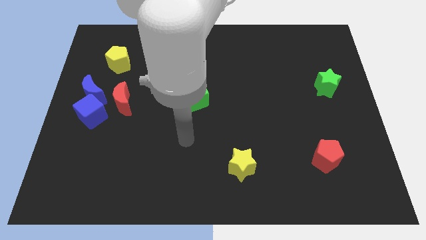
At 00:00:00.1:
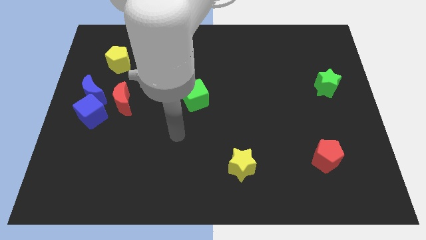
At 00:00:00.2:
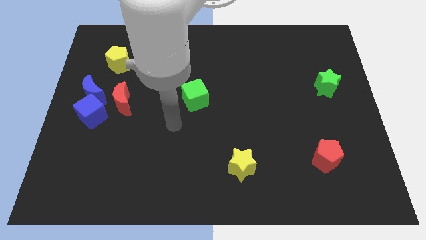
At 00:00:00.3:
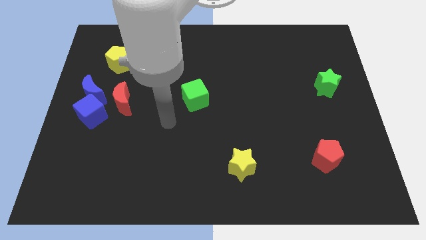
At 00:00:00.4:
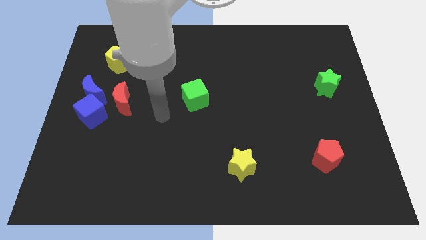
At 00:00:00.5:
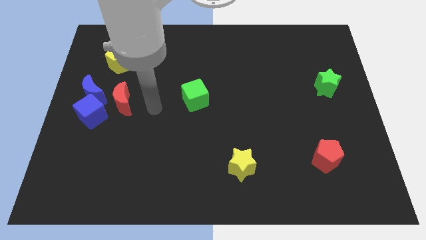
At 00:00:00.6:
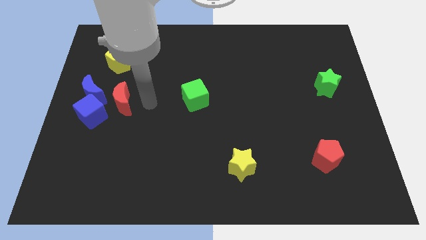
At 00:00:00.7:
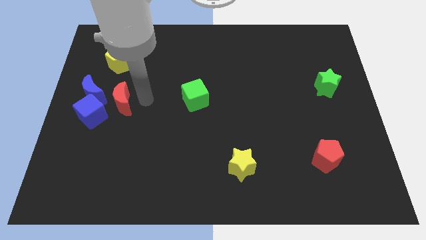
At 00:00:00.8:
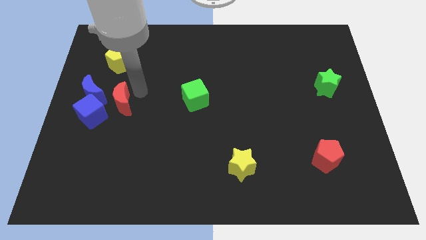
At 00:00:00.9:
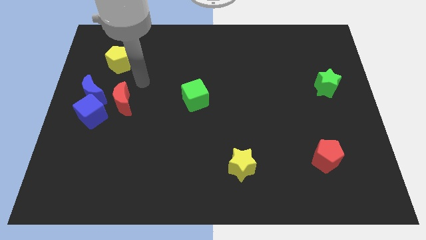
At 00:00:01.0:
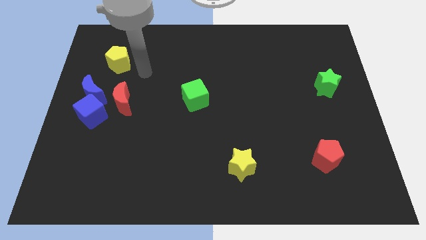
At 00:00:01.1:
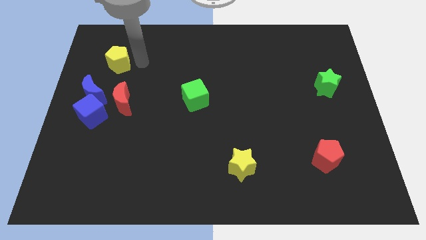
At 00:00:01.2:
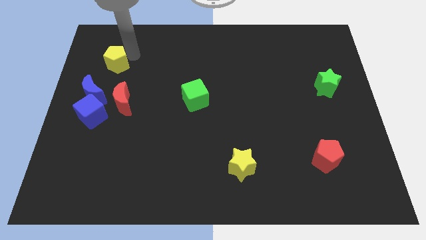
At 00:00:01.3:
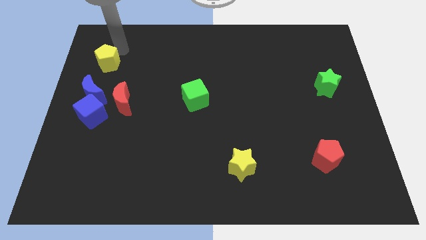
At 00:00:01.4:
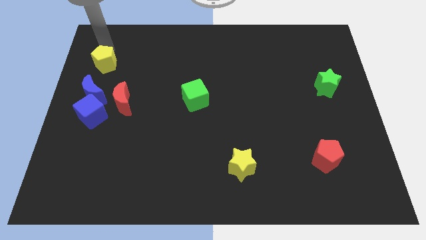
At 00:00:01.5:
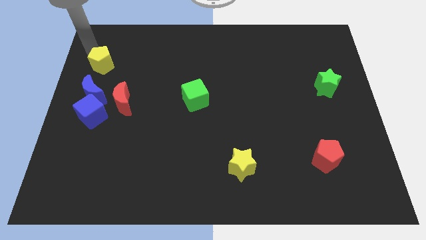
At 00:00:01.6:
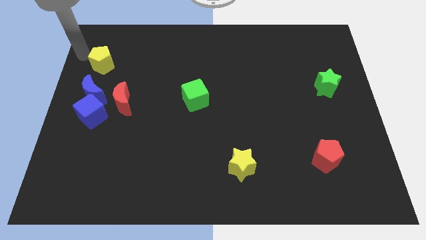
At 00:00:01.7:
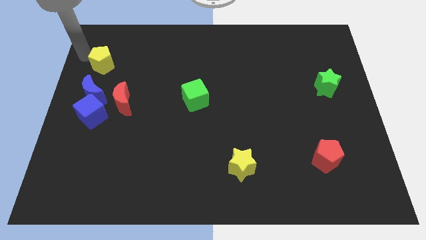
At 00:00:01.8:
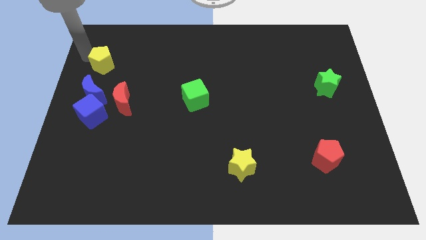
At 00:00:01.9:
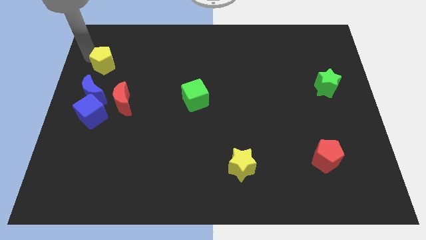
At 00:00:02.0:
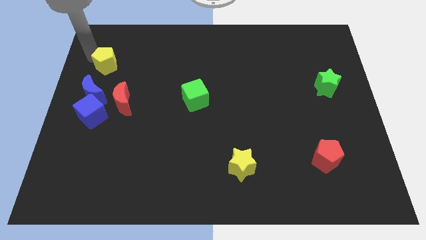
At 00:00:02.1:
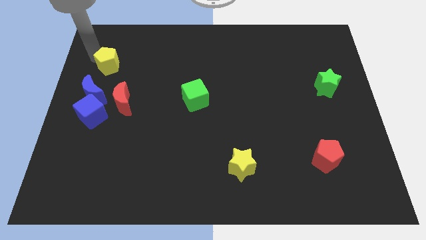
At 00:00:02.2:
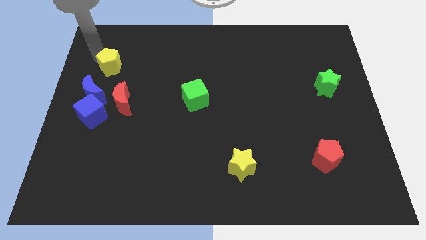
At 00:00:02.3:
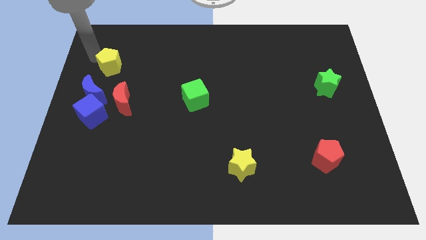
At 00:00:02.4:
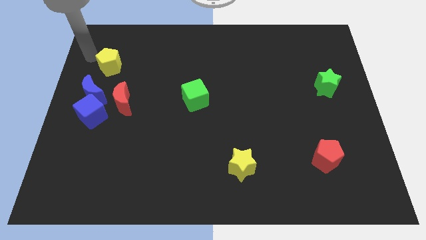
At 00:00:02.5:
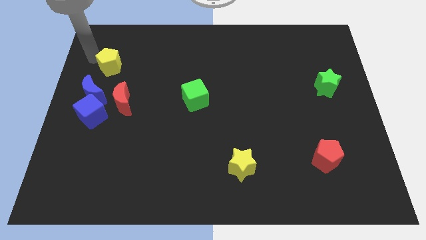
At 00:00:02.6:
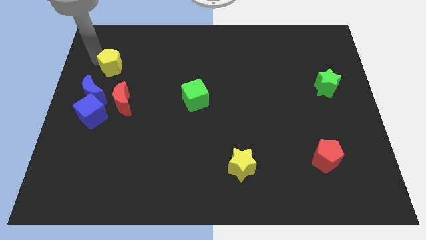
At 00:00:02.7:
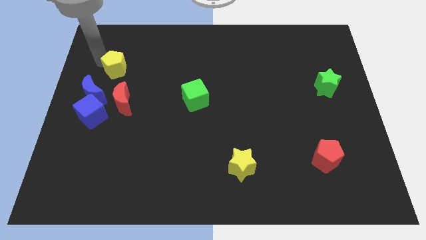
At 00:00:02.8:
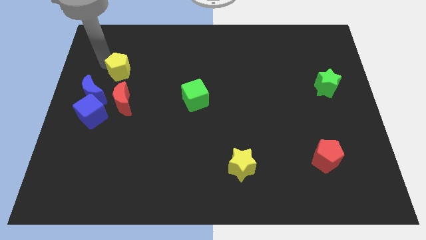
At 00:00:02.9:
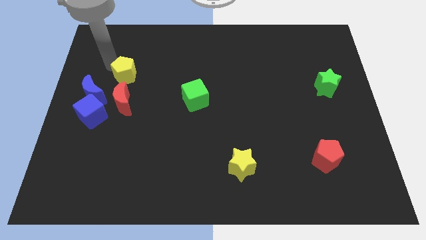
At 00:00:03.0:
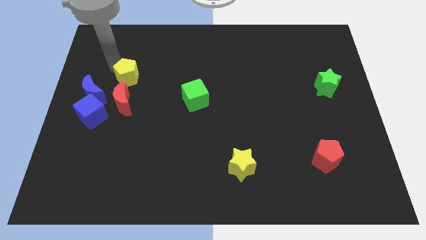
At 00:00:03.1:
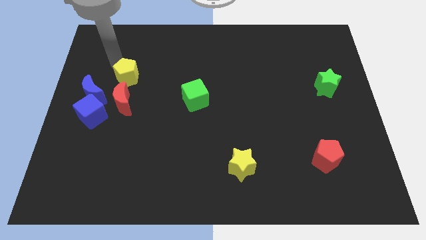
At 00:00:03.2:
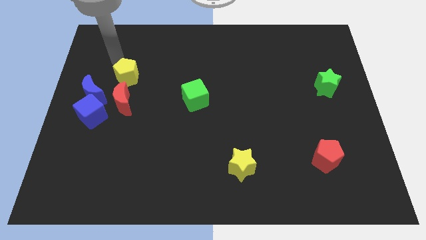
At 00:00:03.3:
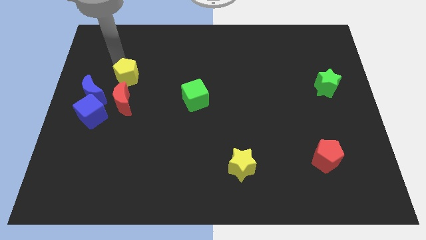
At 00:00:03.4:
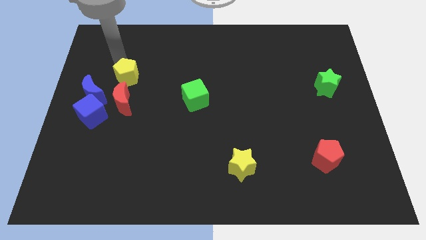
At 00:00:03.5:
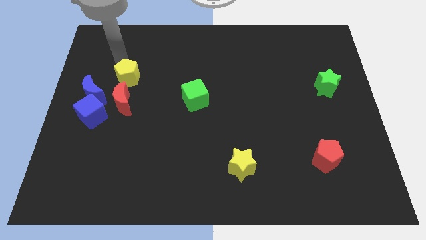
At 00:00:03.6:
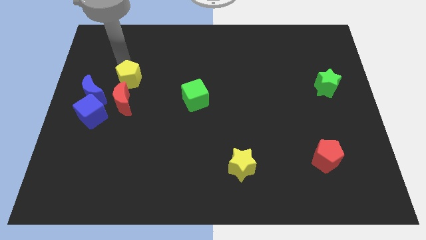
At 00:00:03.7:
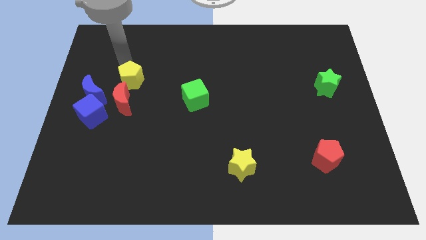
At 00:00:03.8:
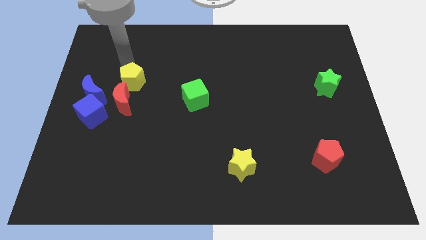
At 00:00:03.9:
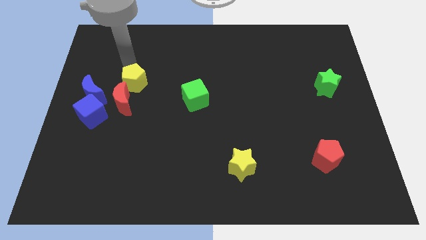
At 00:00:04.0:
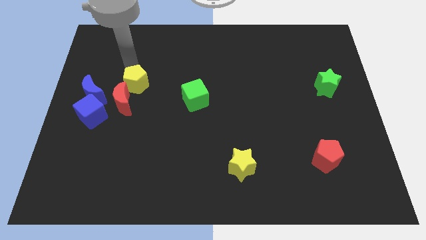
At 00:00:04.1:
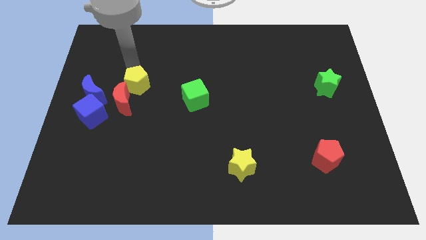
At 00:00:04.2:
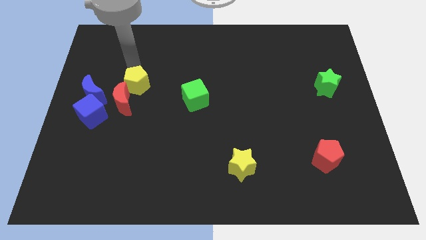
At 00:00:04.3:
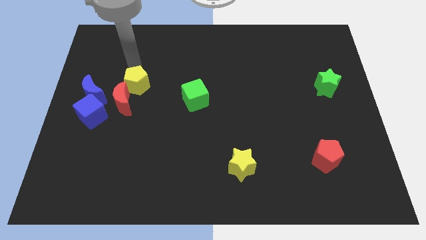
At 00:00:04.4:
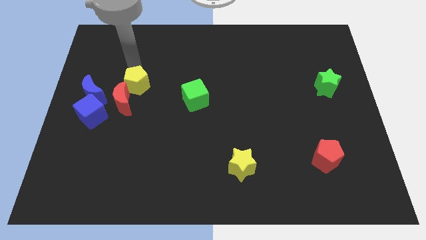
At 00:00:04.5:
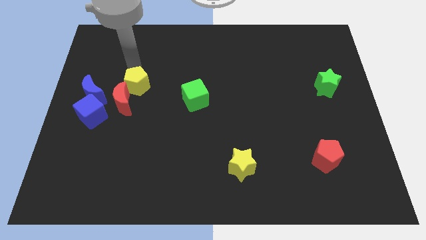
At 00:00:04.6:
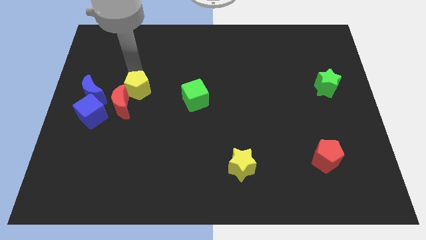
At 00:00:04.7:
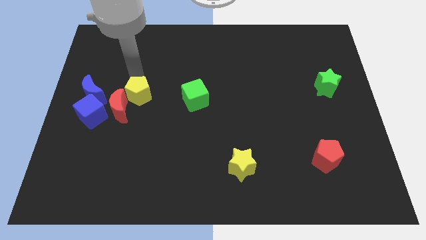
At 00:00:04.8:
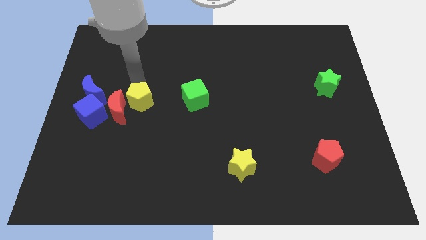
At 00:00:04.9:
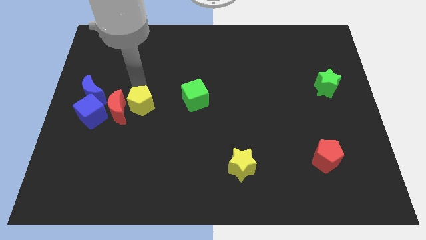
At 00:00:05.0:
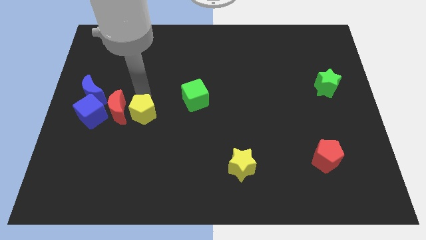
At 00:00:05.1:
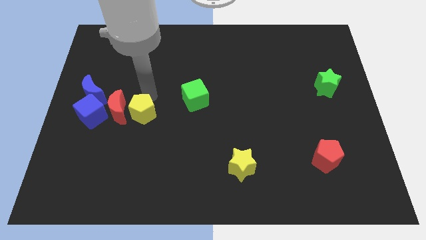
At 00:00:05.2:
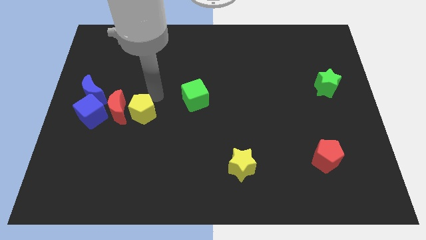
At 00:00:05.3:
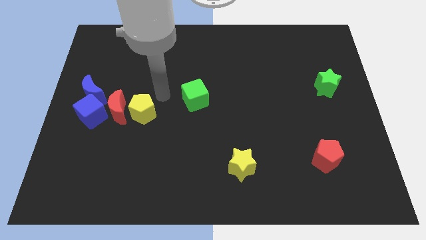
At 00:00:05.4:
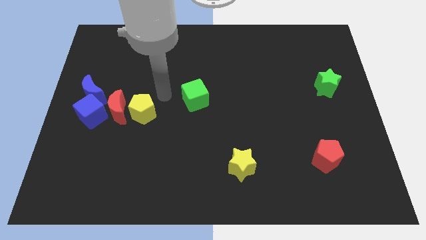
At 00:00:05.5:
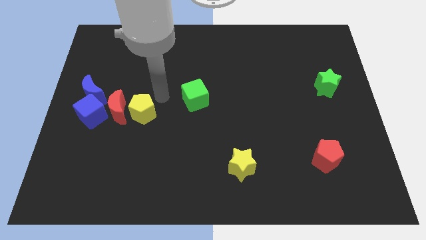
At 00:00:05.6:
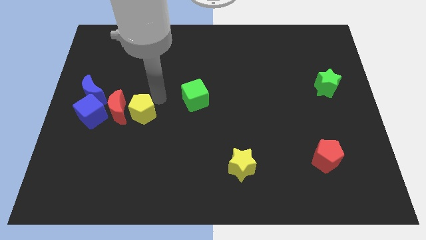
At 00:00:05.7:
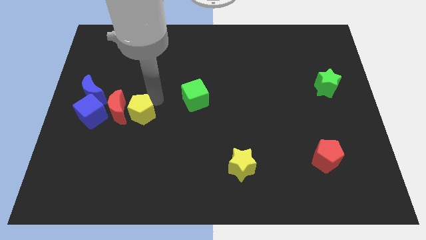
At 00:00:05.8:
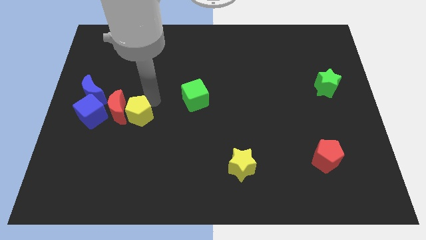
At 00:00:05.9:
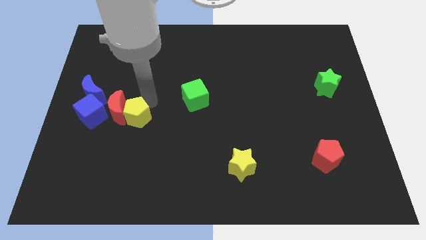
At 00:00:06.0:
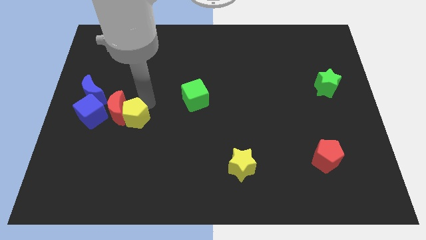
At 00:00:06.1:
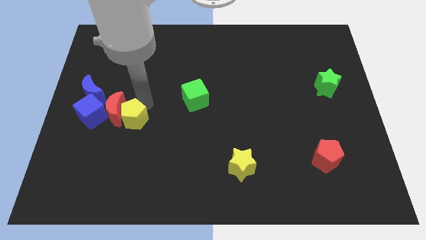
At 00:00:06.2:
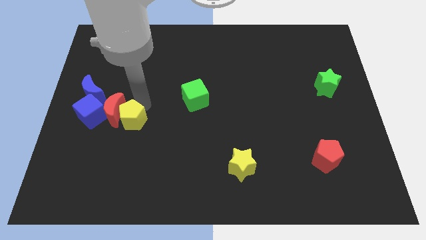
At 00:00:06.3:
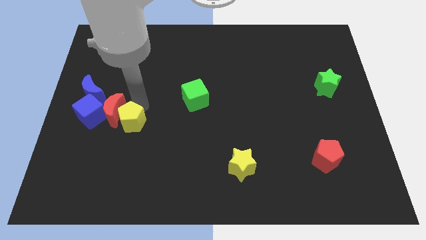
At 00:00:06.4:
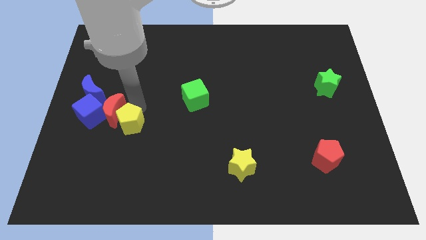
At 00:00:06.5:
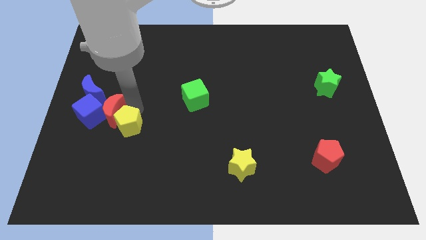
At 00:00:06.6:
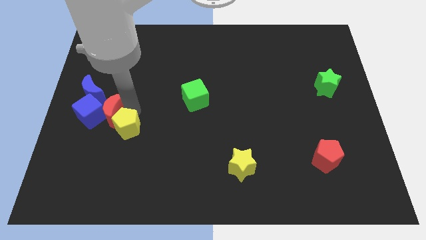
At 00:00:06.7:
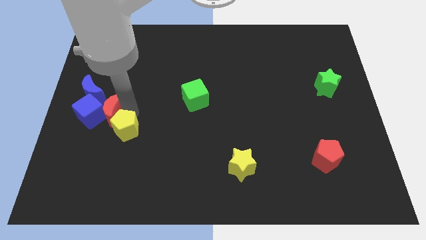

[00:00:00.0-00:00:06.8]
move the yellow pentagon down

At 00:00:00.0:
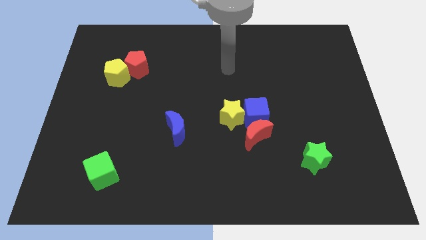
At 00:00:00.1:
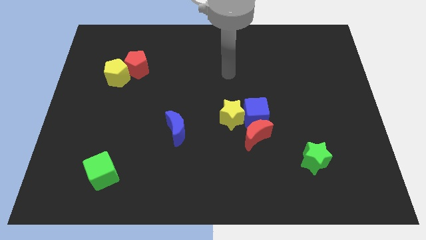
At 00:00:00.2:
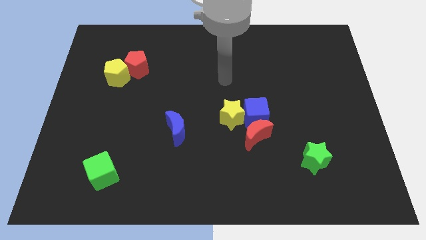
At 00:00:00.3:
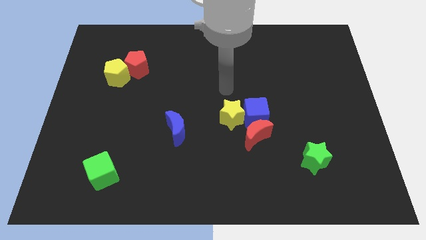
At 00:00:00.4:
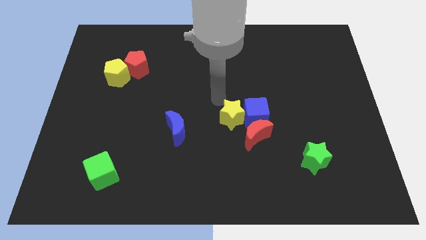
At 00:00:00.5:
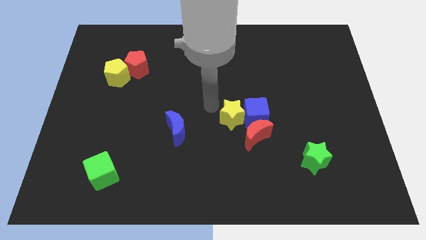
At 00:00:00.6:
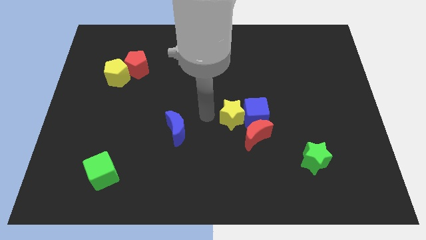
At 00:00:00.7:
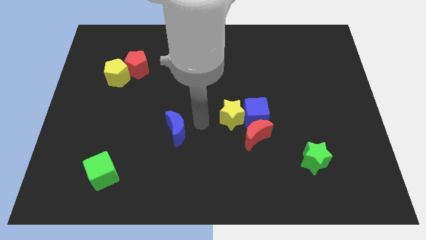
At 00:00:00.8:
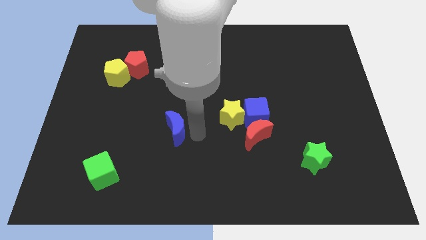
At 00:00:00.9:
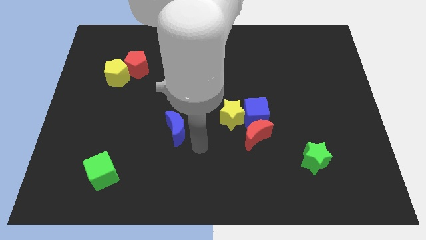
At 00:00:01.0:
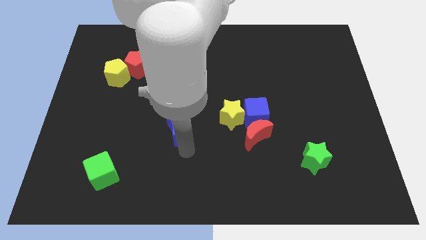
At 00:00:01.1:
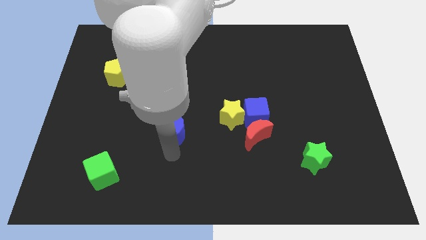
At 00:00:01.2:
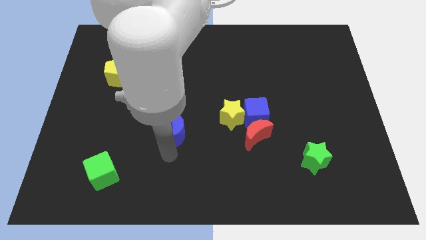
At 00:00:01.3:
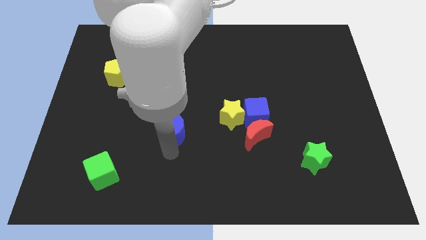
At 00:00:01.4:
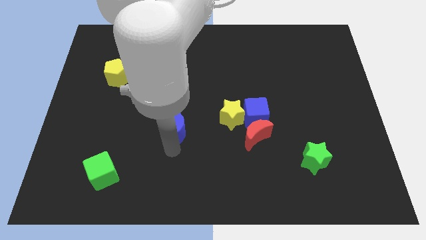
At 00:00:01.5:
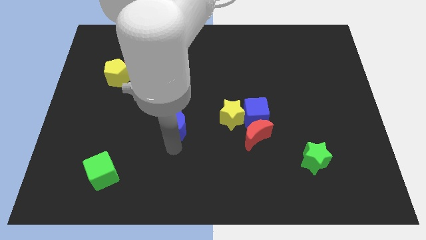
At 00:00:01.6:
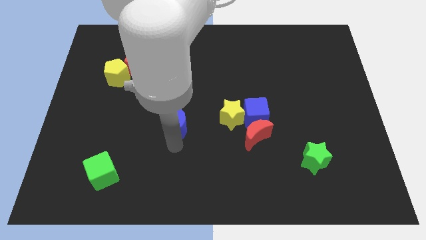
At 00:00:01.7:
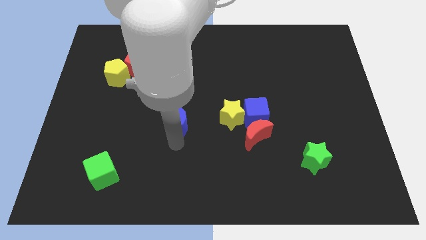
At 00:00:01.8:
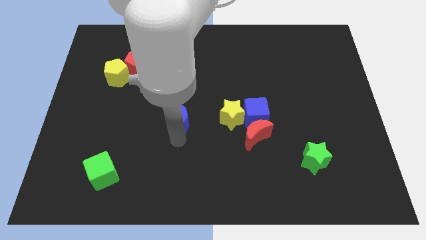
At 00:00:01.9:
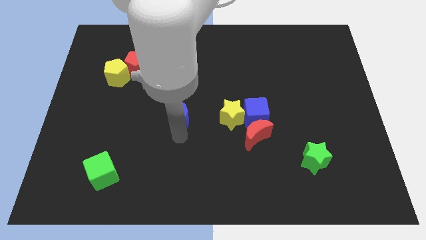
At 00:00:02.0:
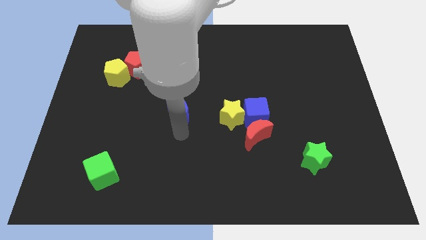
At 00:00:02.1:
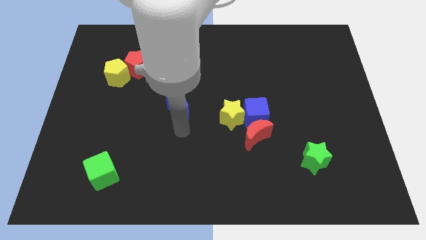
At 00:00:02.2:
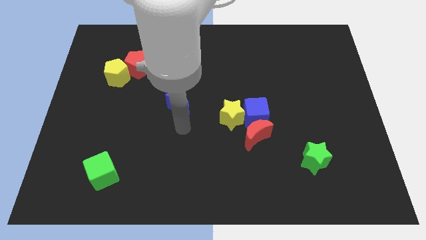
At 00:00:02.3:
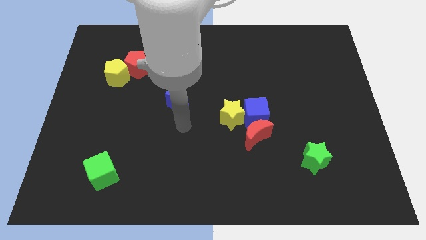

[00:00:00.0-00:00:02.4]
move the blue moon upwards somewhat
